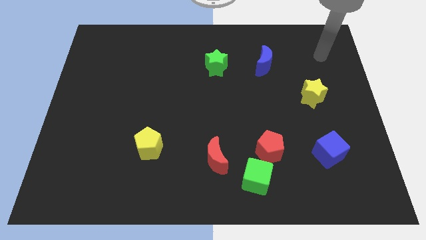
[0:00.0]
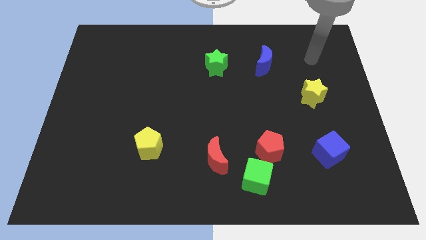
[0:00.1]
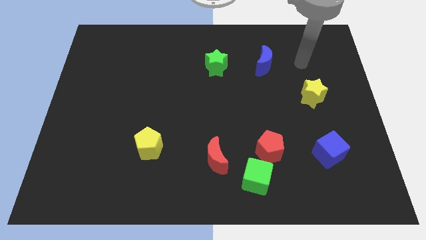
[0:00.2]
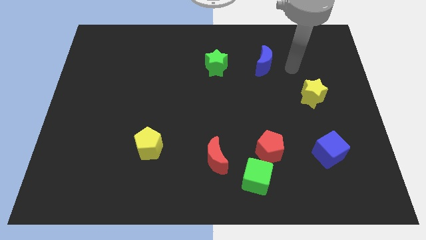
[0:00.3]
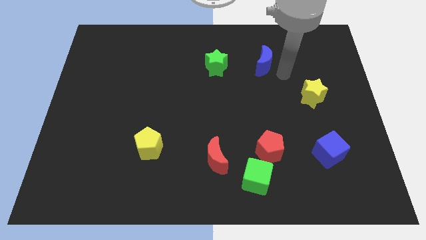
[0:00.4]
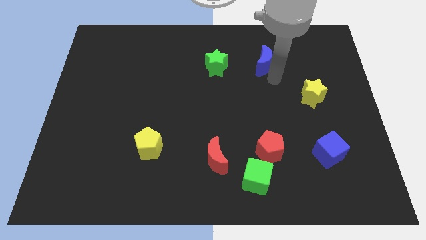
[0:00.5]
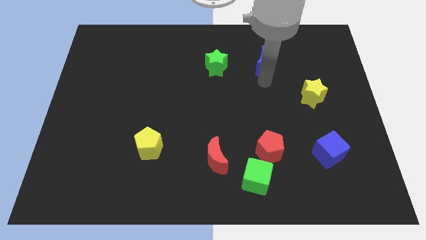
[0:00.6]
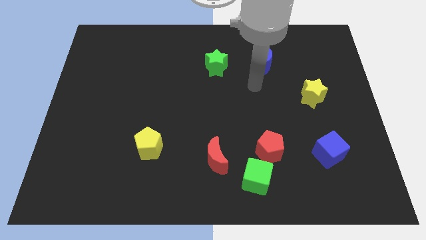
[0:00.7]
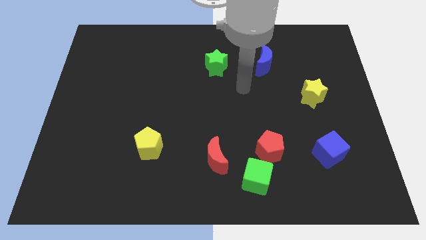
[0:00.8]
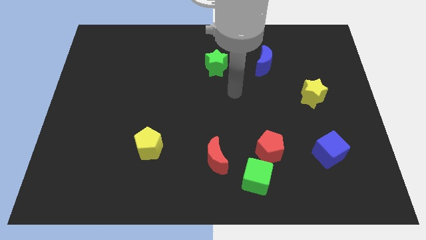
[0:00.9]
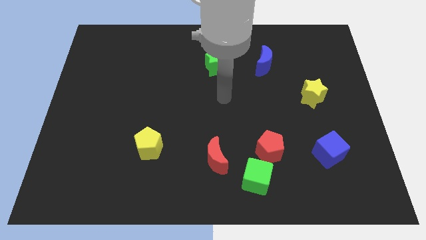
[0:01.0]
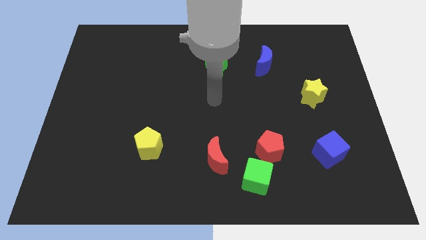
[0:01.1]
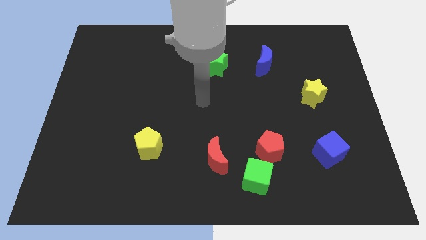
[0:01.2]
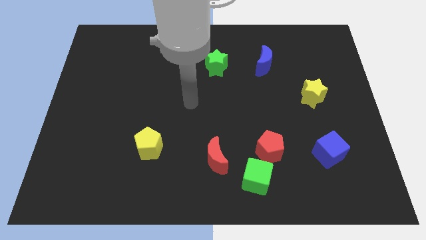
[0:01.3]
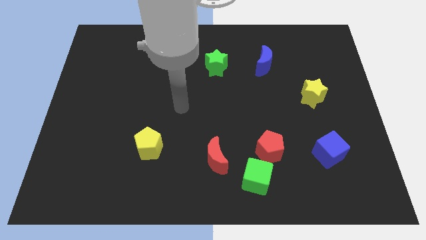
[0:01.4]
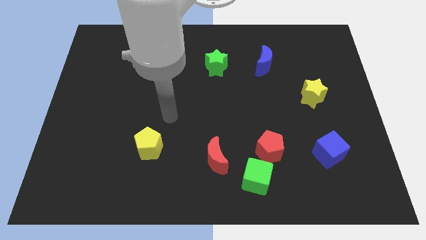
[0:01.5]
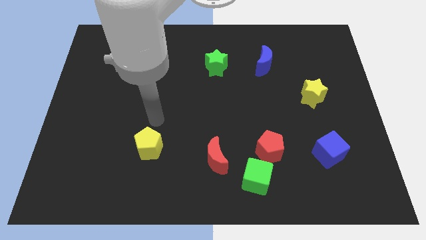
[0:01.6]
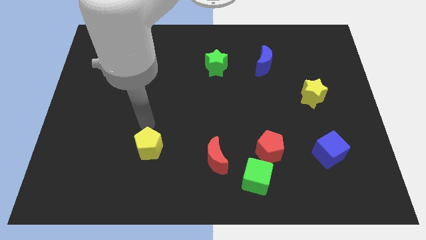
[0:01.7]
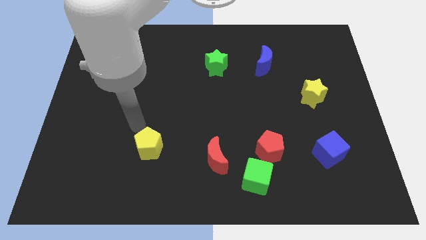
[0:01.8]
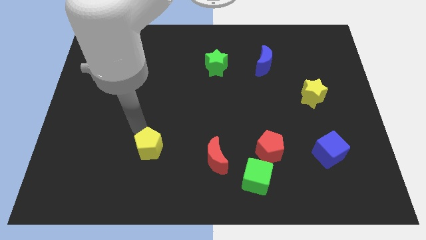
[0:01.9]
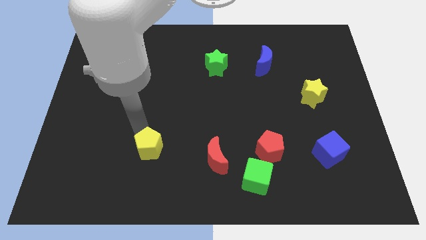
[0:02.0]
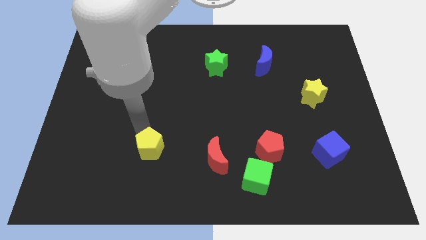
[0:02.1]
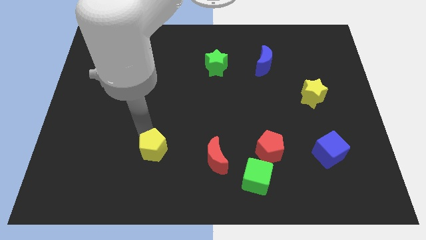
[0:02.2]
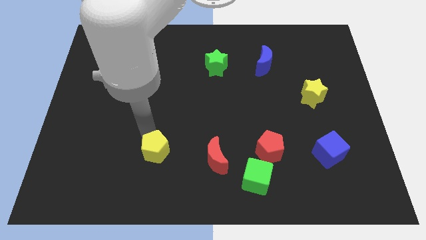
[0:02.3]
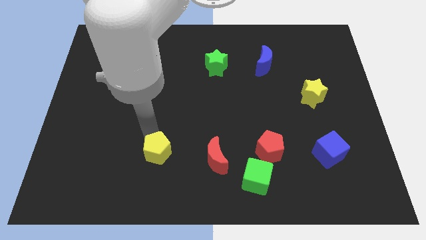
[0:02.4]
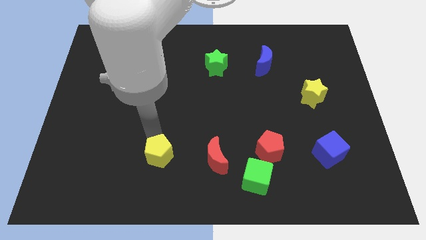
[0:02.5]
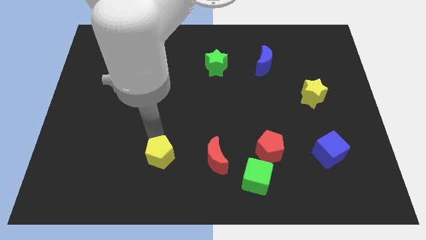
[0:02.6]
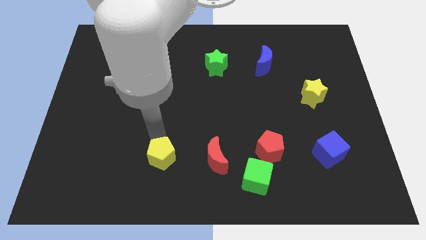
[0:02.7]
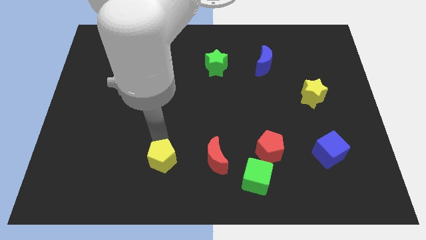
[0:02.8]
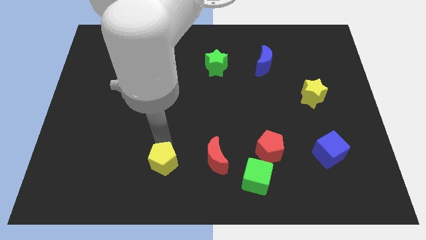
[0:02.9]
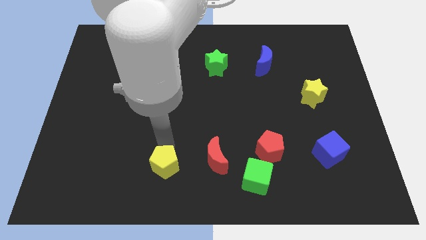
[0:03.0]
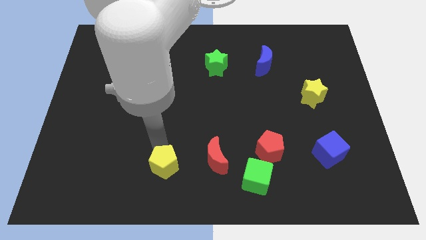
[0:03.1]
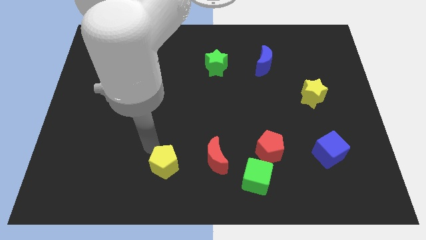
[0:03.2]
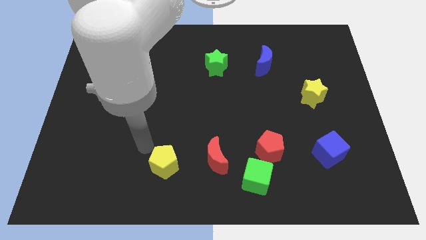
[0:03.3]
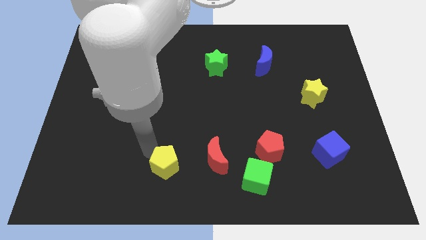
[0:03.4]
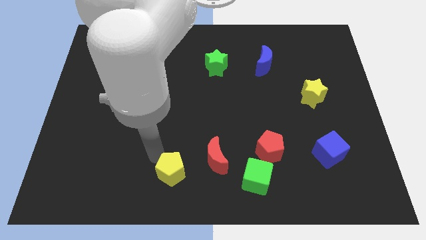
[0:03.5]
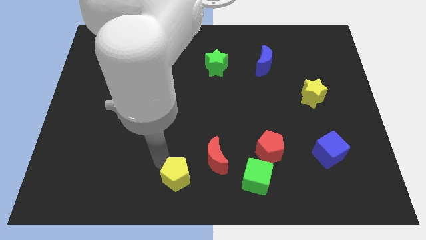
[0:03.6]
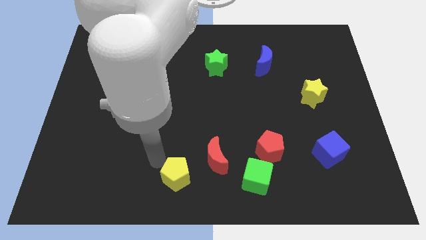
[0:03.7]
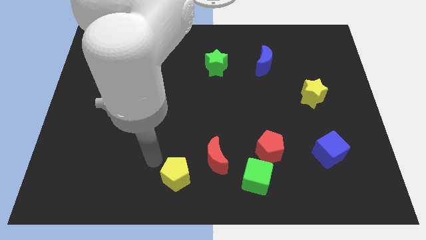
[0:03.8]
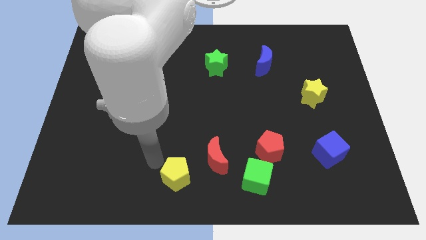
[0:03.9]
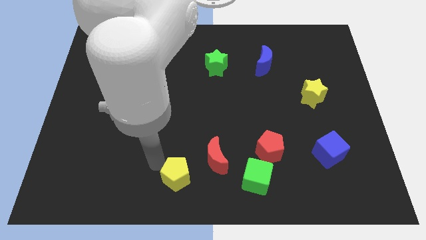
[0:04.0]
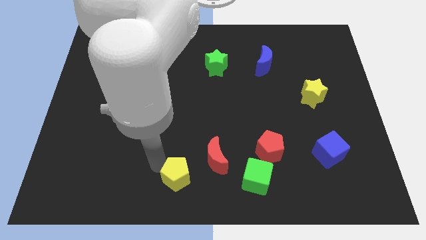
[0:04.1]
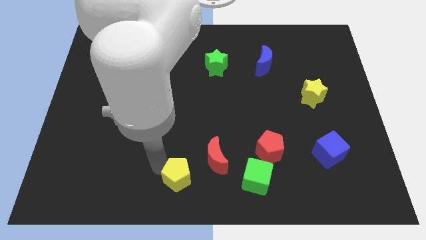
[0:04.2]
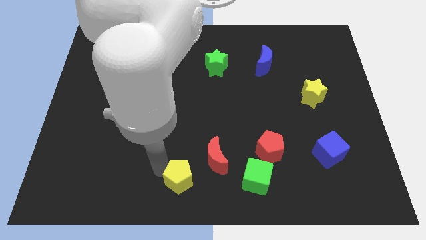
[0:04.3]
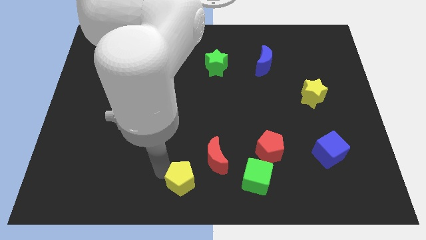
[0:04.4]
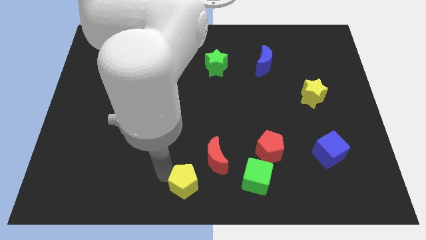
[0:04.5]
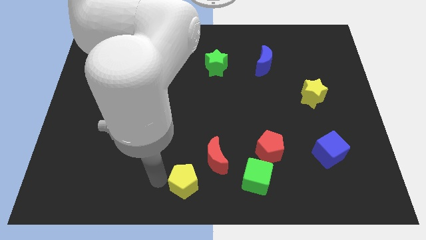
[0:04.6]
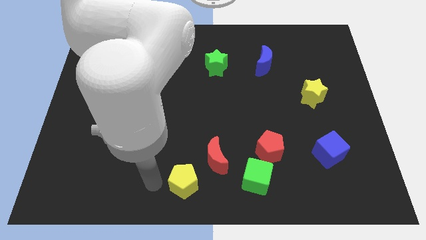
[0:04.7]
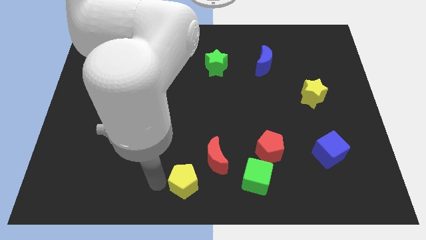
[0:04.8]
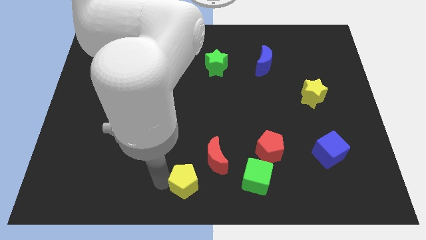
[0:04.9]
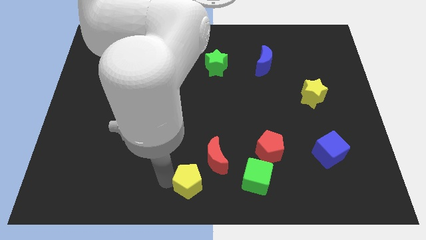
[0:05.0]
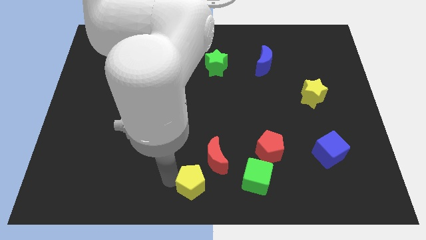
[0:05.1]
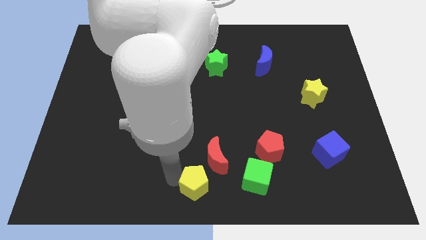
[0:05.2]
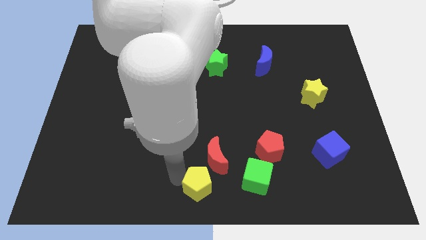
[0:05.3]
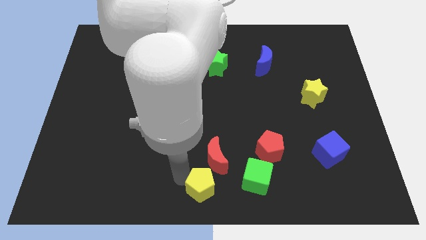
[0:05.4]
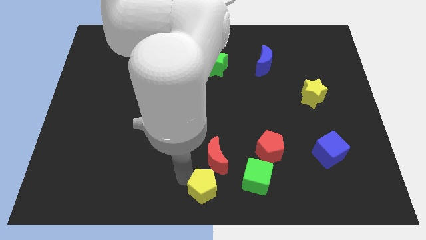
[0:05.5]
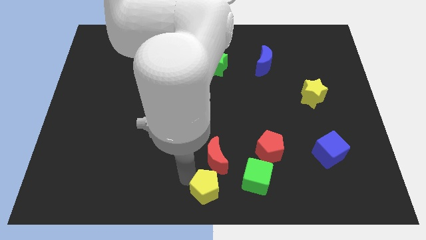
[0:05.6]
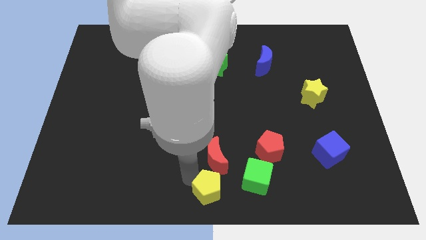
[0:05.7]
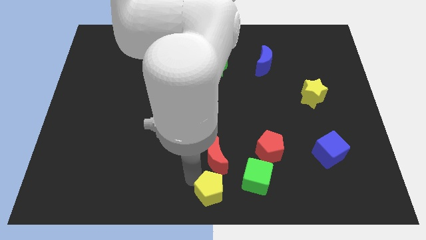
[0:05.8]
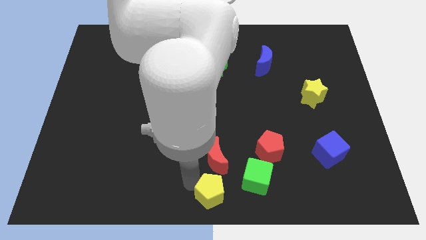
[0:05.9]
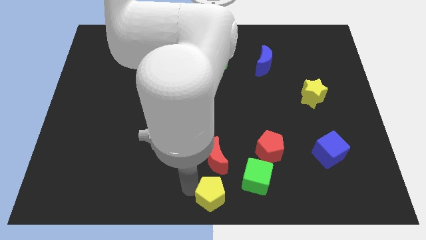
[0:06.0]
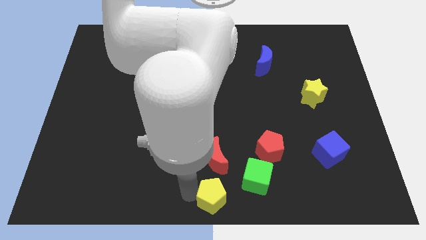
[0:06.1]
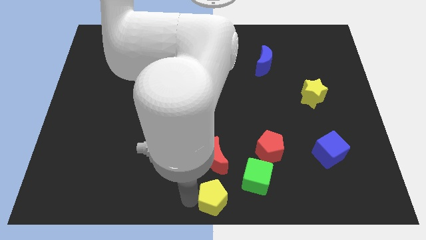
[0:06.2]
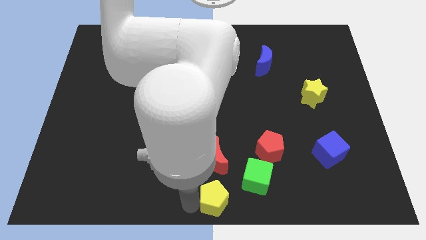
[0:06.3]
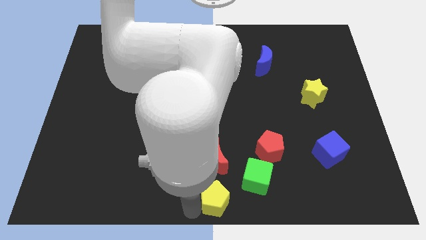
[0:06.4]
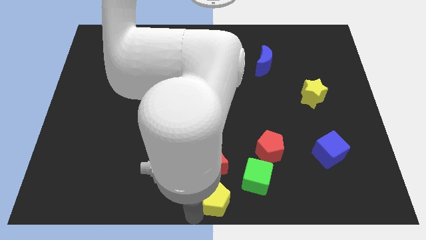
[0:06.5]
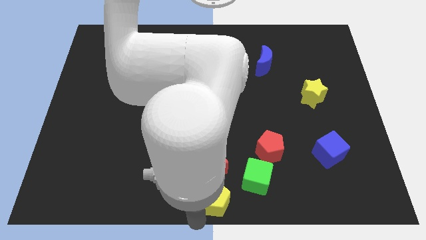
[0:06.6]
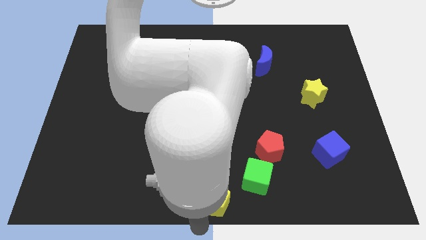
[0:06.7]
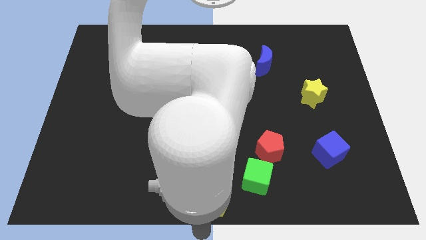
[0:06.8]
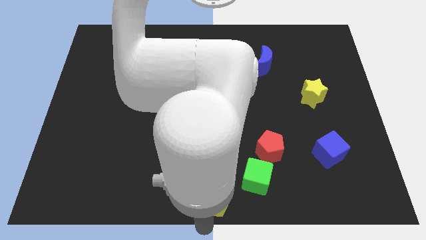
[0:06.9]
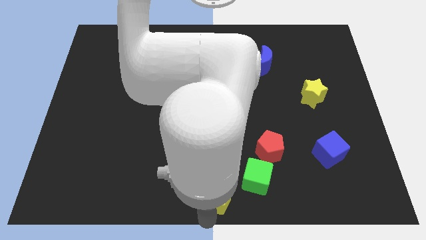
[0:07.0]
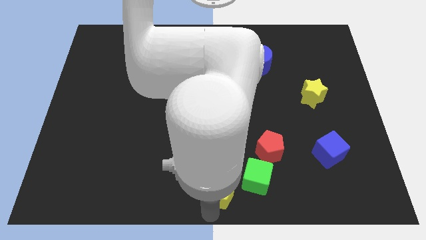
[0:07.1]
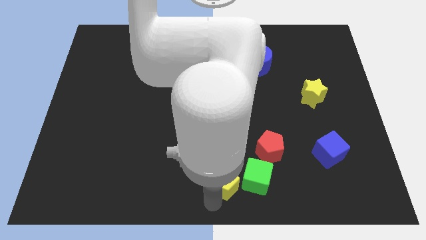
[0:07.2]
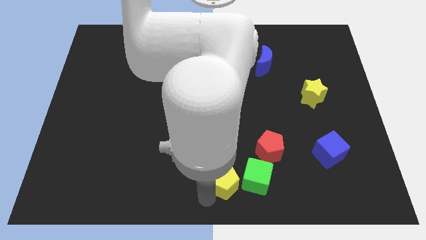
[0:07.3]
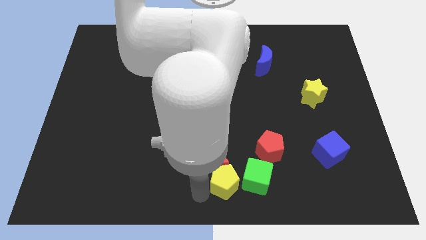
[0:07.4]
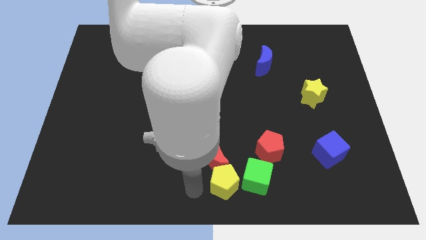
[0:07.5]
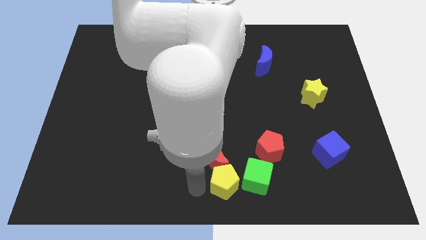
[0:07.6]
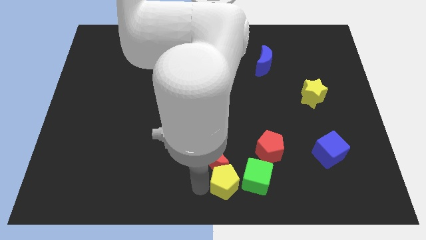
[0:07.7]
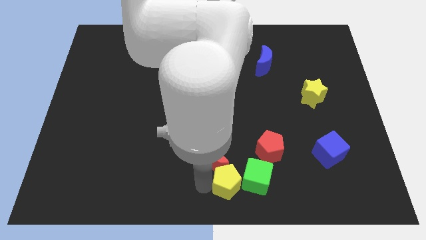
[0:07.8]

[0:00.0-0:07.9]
push the yellow pentagon close to the green cube
